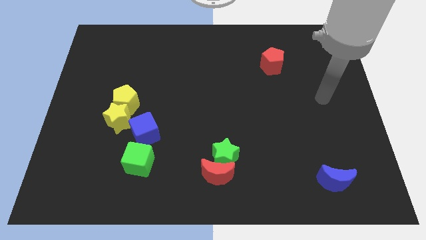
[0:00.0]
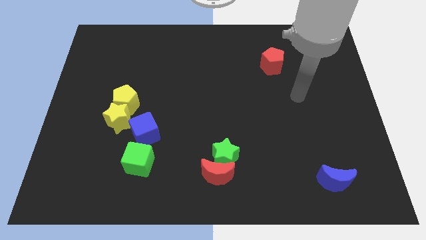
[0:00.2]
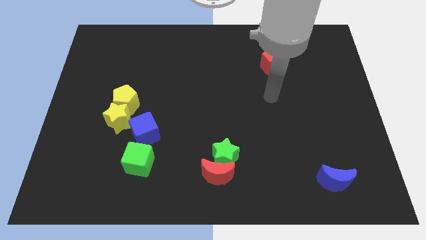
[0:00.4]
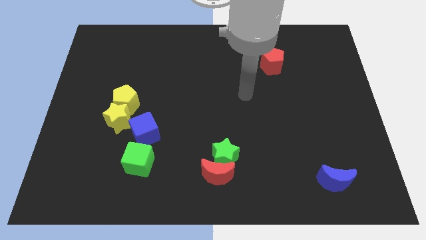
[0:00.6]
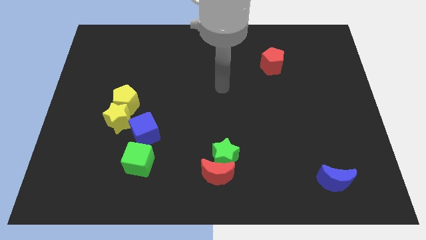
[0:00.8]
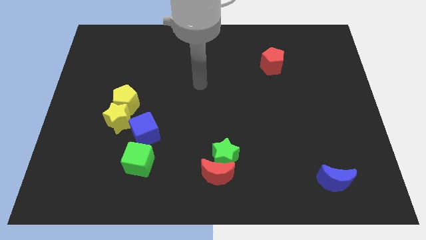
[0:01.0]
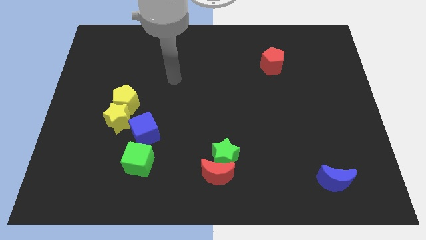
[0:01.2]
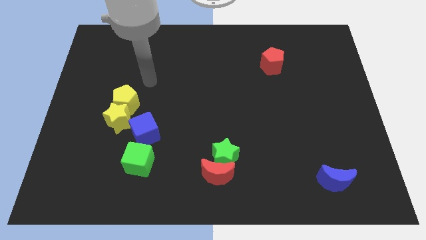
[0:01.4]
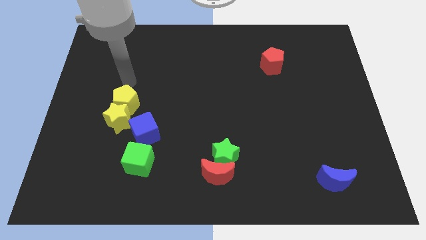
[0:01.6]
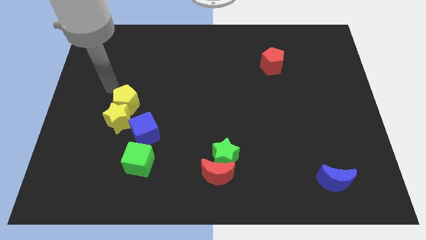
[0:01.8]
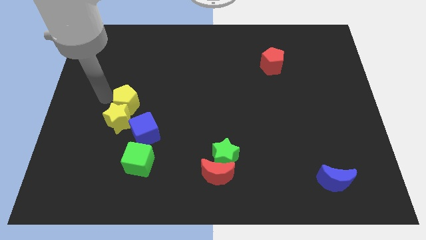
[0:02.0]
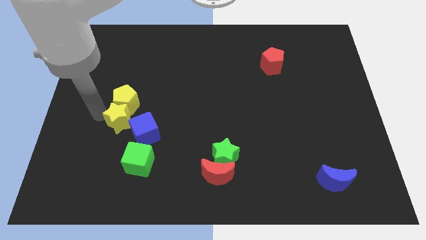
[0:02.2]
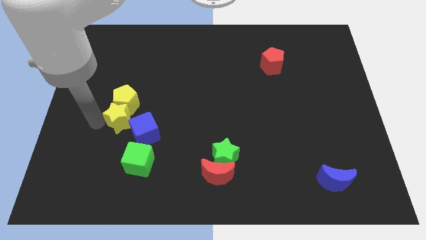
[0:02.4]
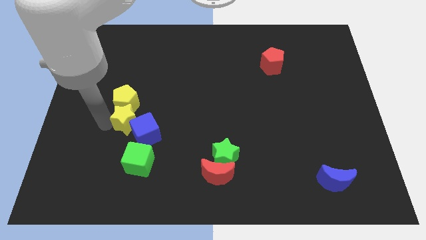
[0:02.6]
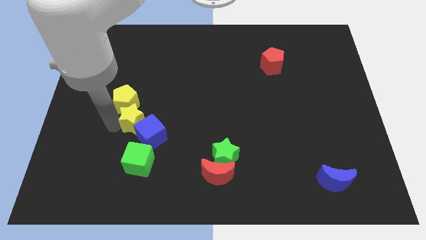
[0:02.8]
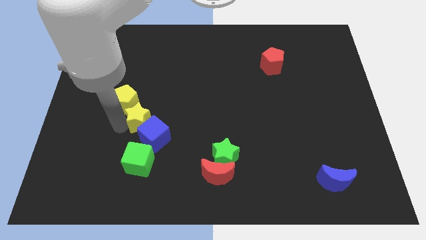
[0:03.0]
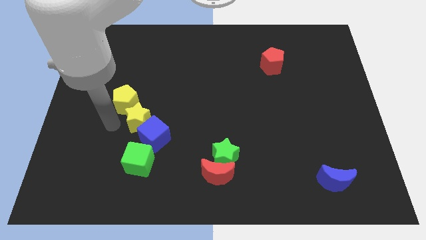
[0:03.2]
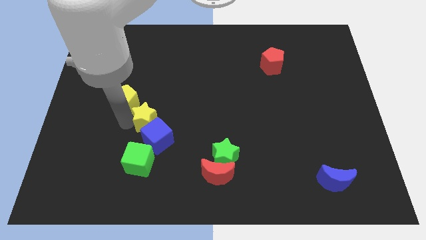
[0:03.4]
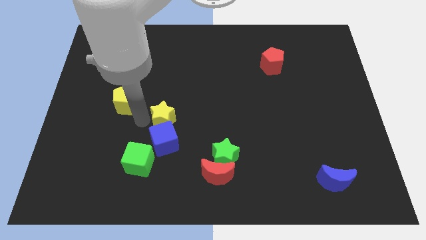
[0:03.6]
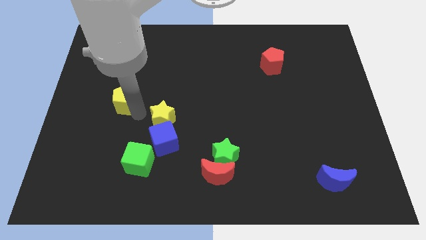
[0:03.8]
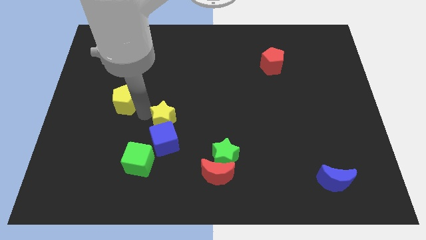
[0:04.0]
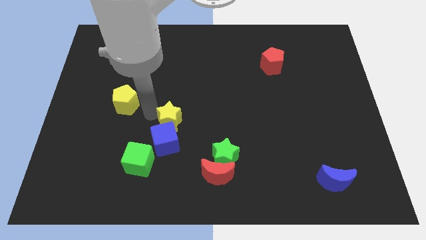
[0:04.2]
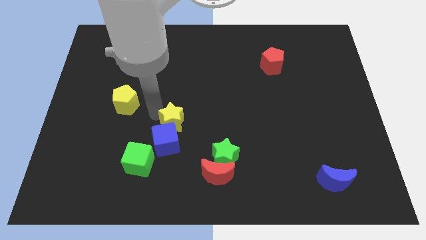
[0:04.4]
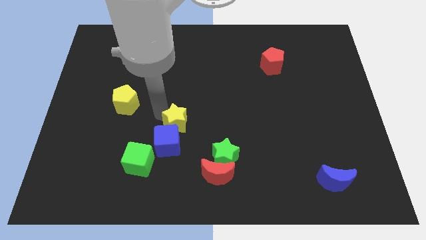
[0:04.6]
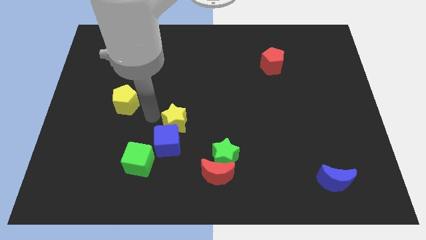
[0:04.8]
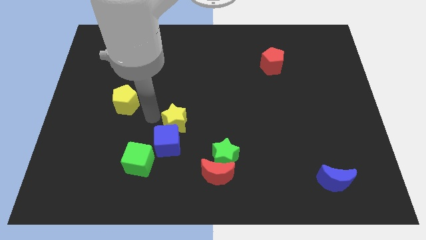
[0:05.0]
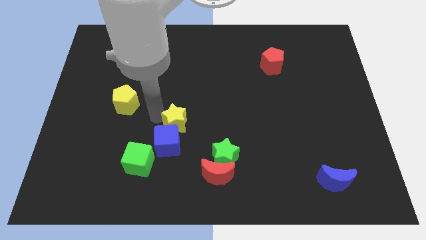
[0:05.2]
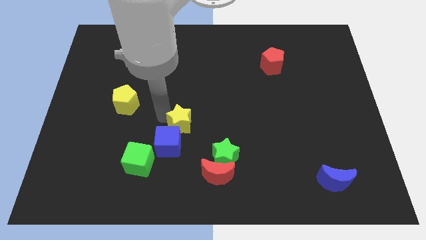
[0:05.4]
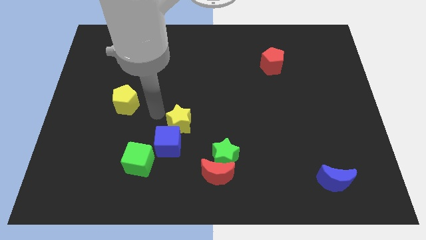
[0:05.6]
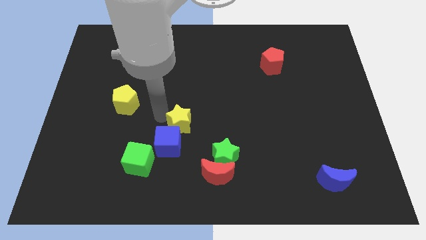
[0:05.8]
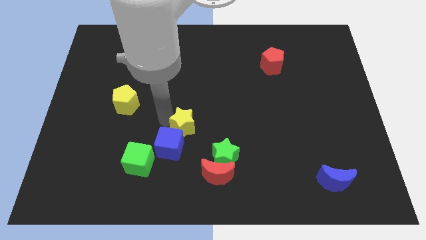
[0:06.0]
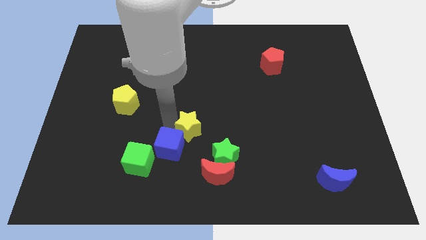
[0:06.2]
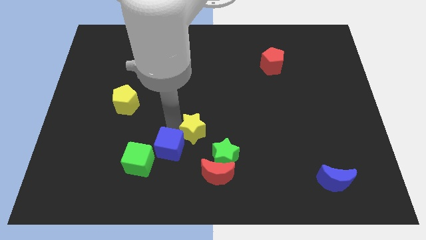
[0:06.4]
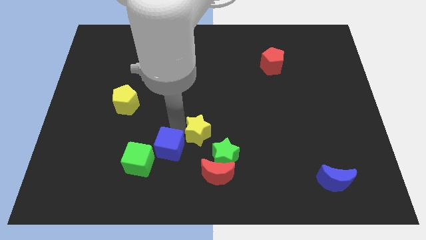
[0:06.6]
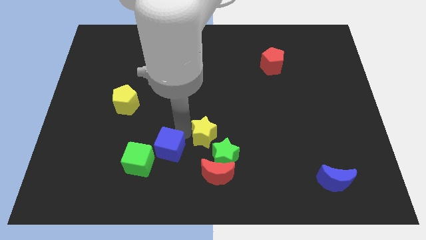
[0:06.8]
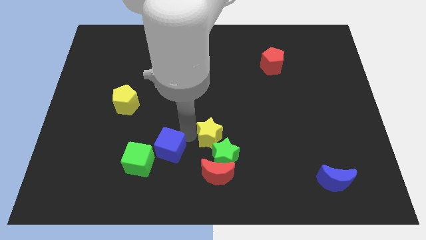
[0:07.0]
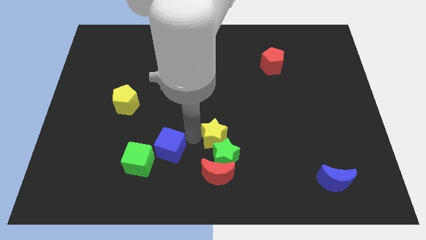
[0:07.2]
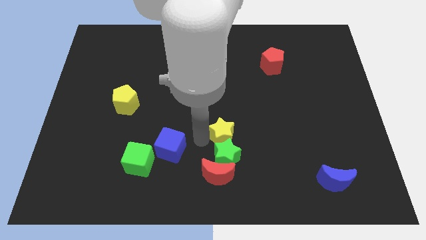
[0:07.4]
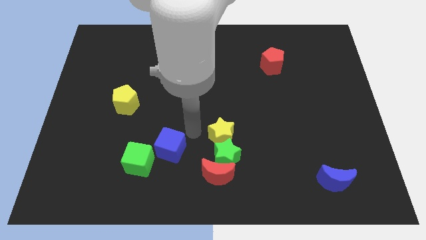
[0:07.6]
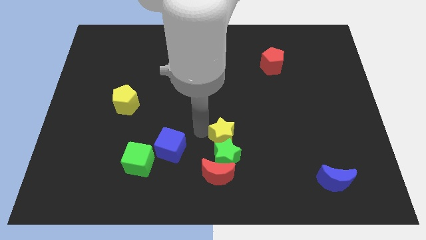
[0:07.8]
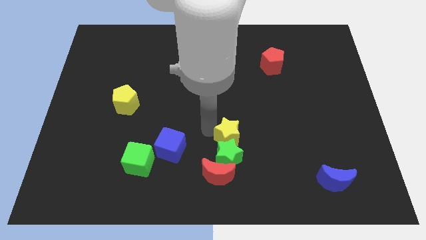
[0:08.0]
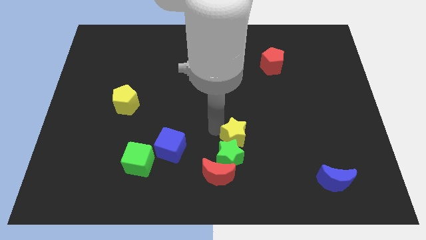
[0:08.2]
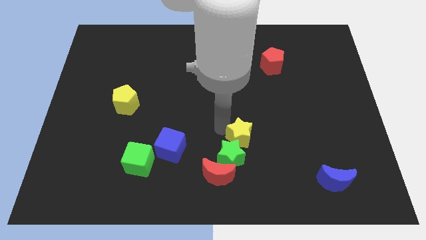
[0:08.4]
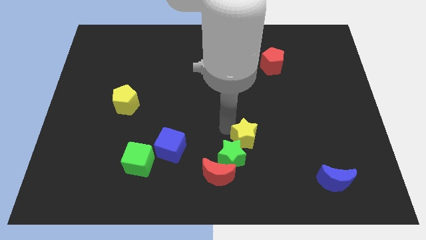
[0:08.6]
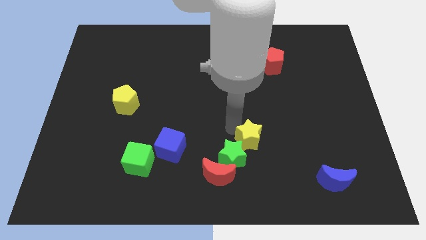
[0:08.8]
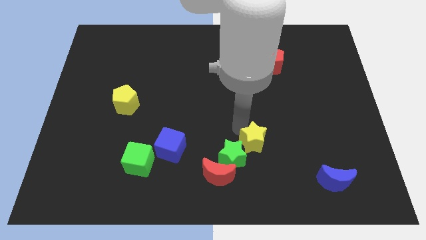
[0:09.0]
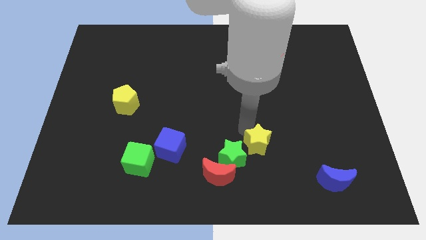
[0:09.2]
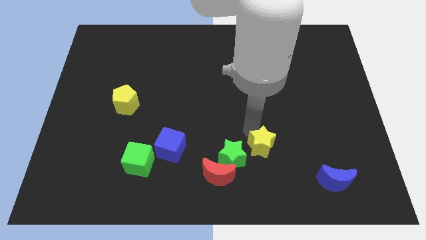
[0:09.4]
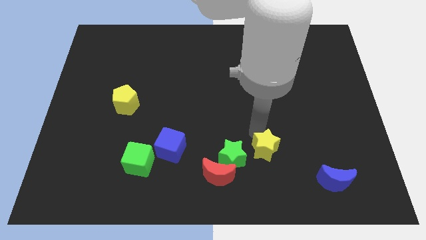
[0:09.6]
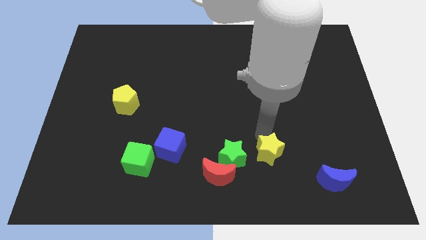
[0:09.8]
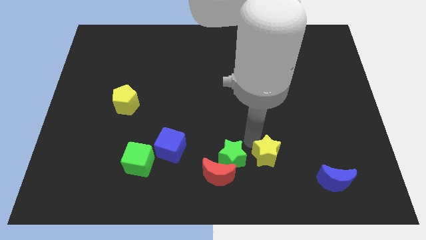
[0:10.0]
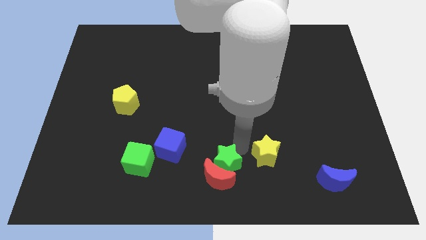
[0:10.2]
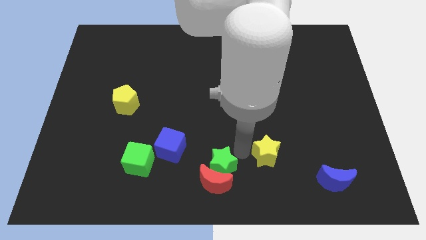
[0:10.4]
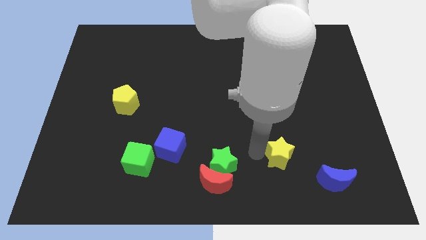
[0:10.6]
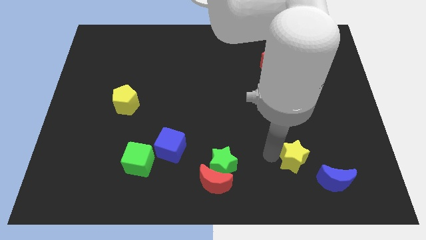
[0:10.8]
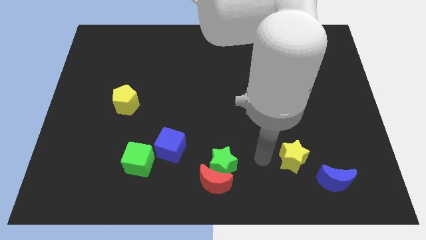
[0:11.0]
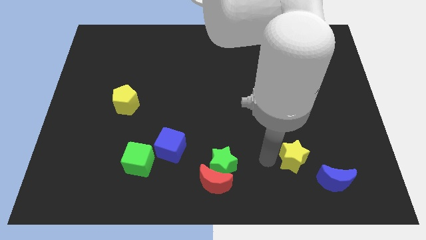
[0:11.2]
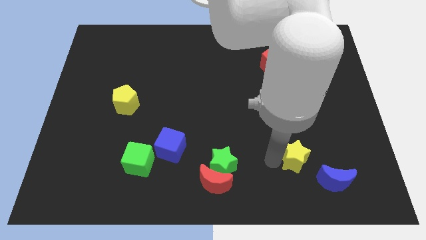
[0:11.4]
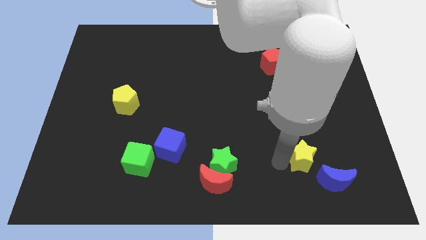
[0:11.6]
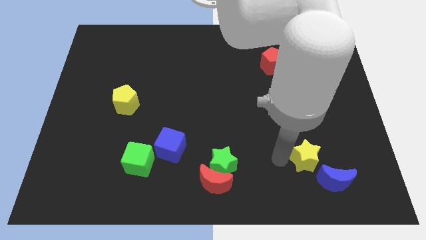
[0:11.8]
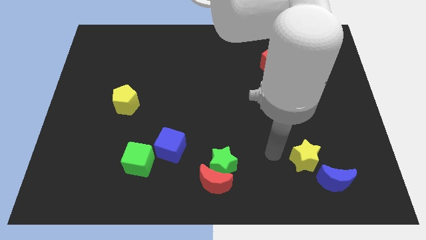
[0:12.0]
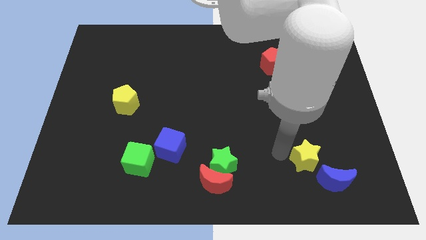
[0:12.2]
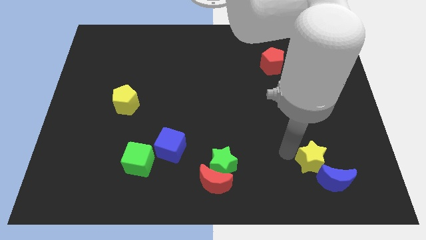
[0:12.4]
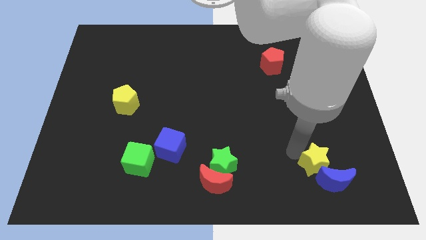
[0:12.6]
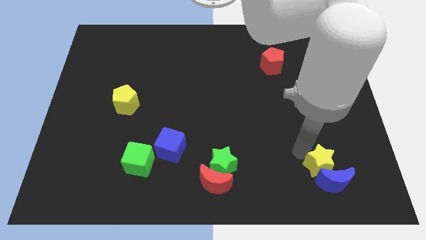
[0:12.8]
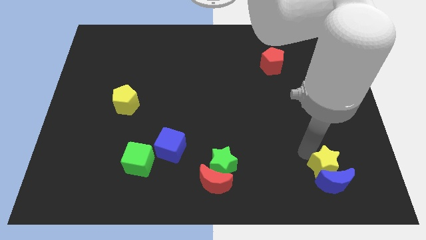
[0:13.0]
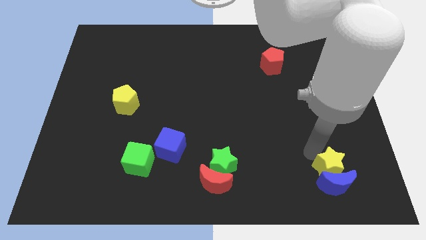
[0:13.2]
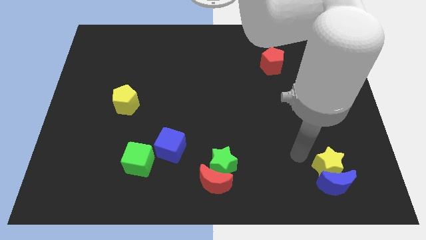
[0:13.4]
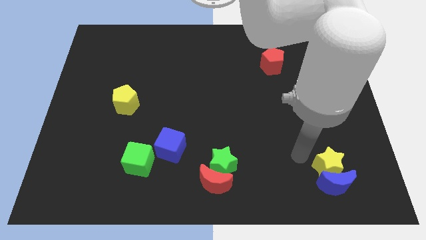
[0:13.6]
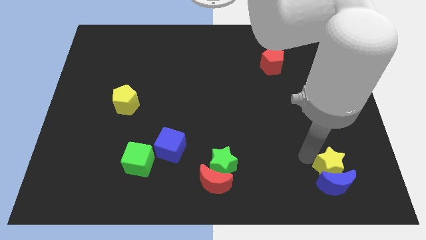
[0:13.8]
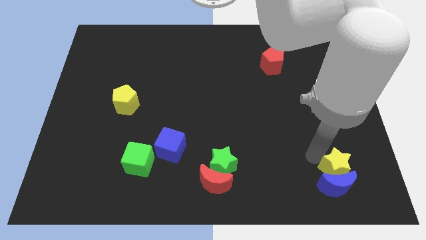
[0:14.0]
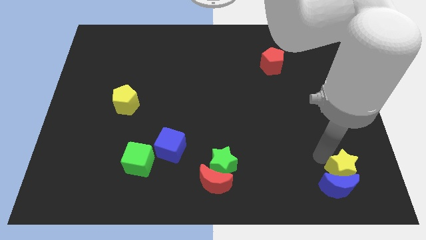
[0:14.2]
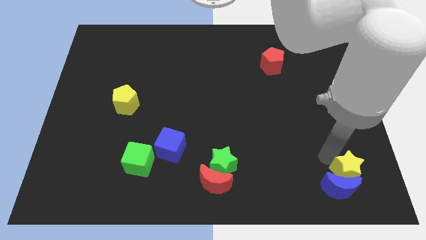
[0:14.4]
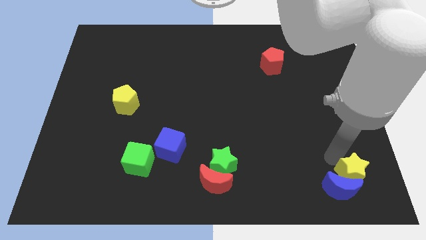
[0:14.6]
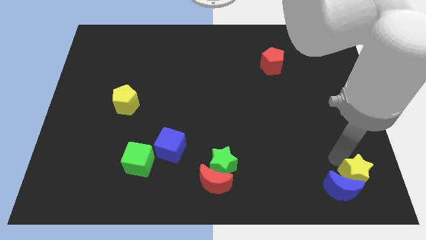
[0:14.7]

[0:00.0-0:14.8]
put the yellow star to the lower right corner
